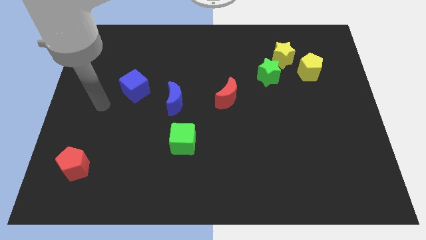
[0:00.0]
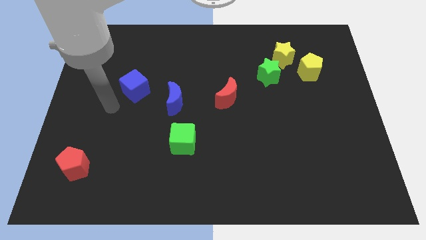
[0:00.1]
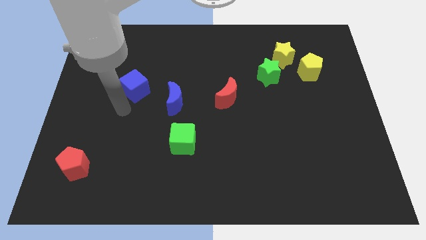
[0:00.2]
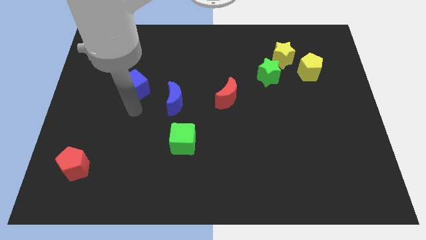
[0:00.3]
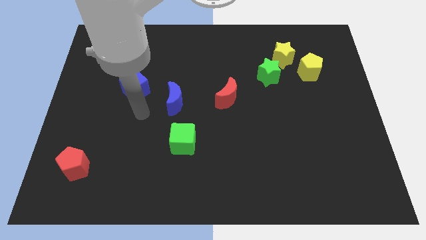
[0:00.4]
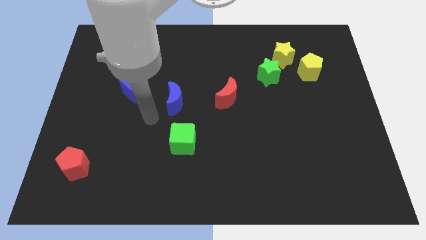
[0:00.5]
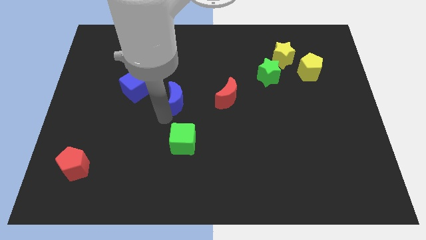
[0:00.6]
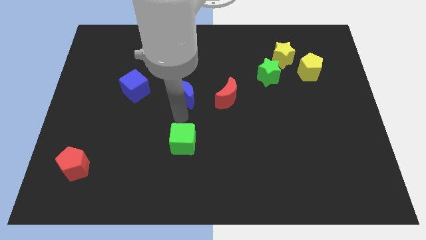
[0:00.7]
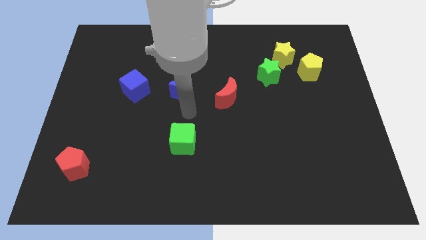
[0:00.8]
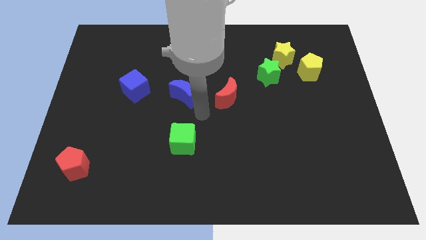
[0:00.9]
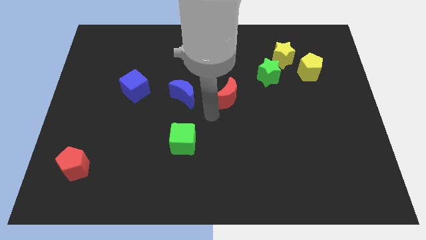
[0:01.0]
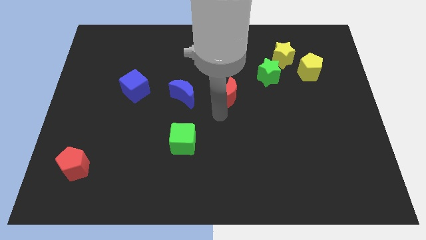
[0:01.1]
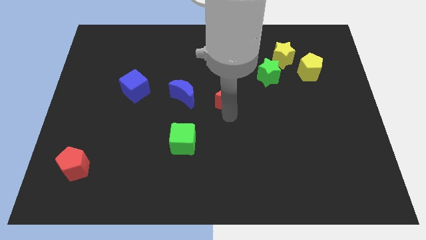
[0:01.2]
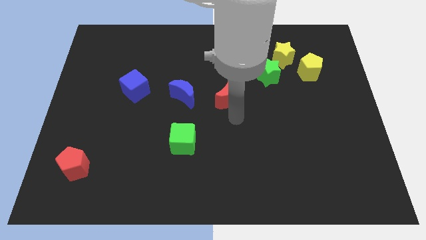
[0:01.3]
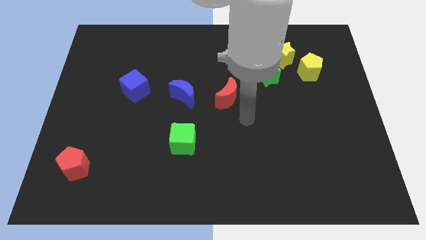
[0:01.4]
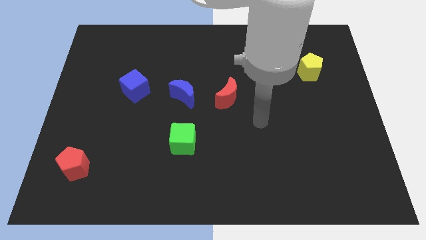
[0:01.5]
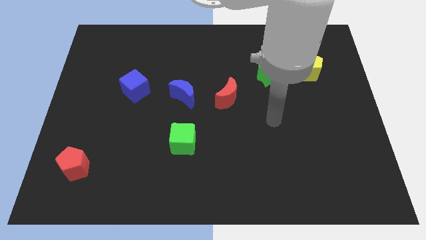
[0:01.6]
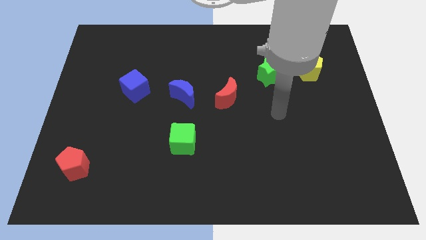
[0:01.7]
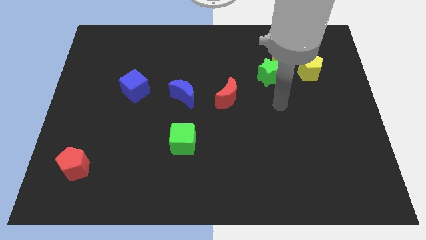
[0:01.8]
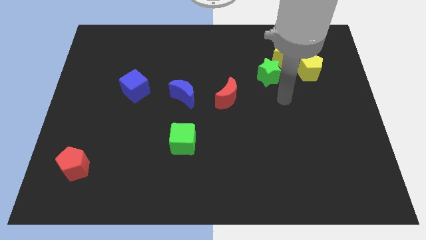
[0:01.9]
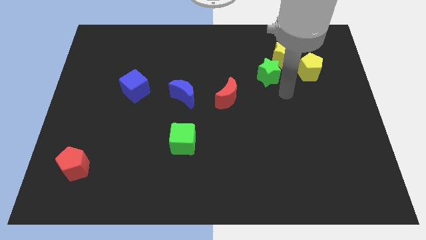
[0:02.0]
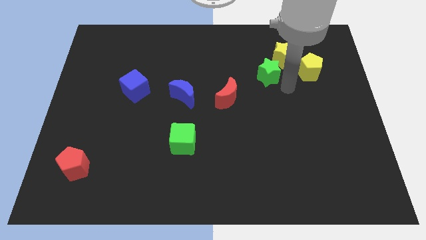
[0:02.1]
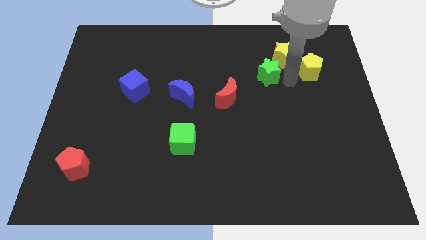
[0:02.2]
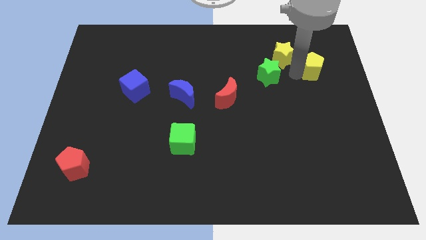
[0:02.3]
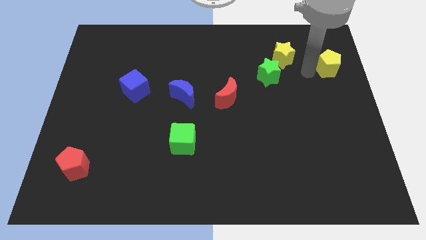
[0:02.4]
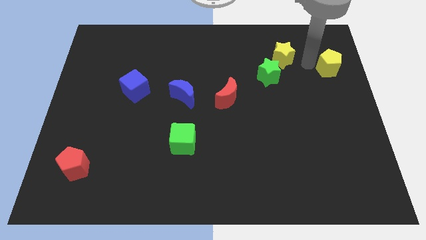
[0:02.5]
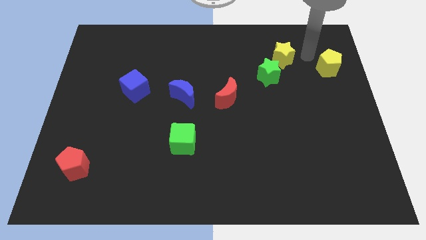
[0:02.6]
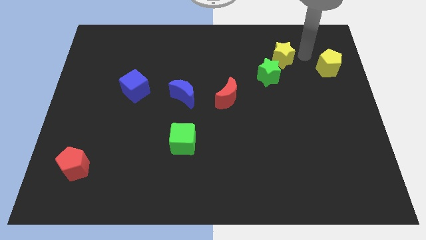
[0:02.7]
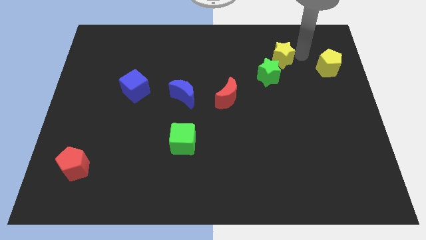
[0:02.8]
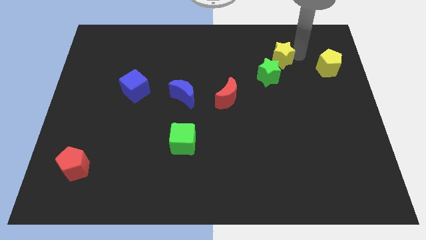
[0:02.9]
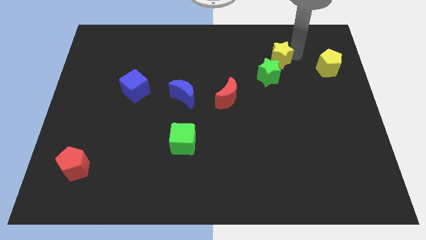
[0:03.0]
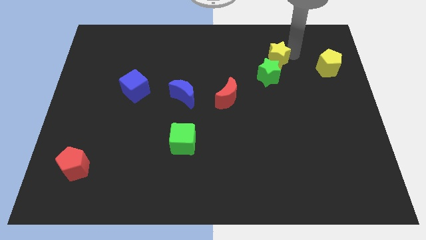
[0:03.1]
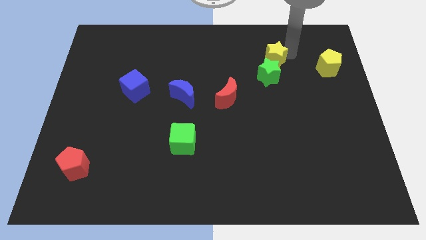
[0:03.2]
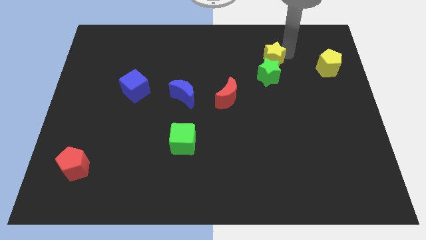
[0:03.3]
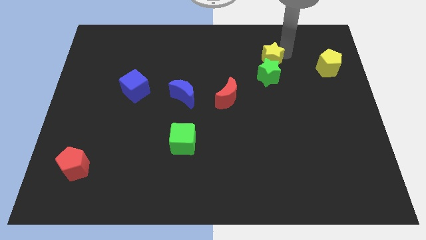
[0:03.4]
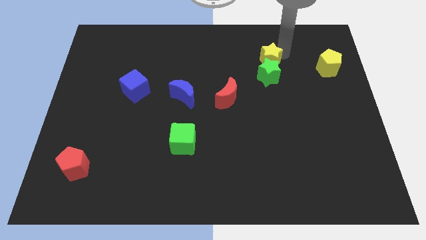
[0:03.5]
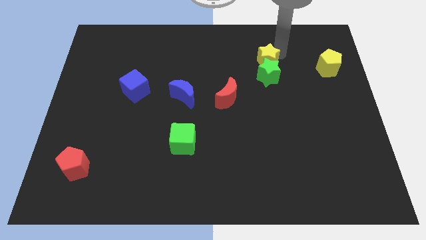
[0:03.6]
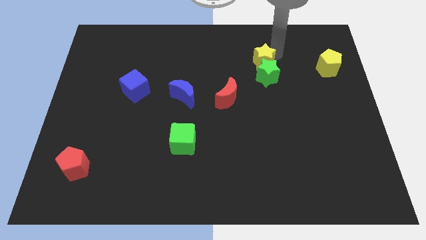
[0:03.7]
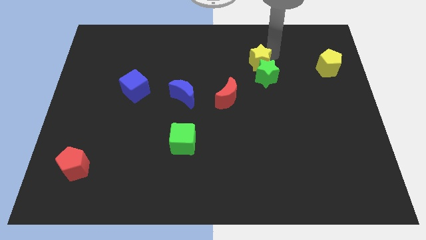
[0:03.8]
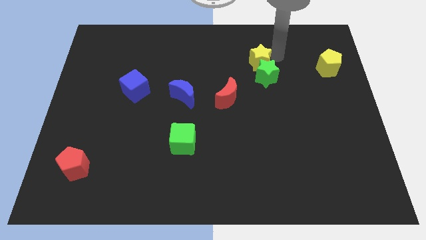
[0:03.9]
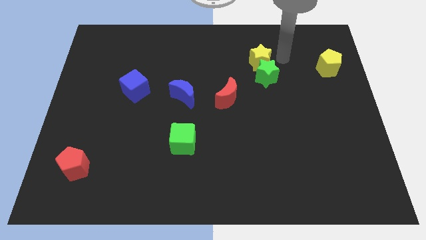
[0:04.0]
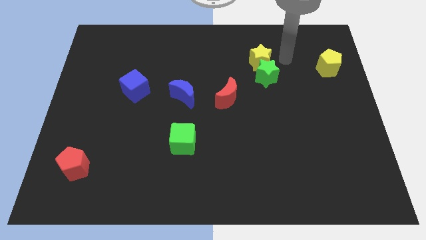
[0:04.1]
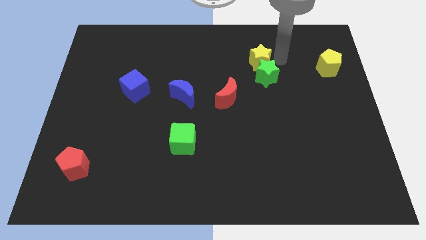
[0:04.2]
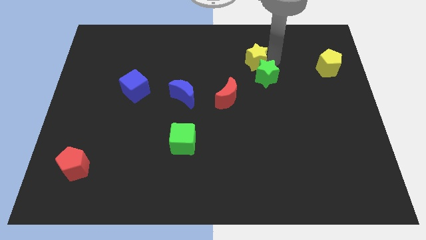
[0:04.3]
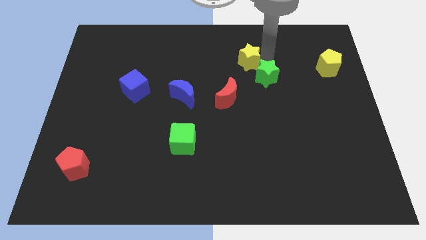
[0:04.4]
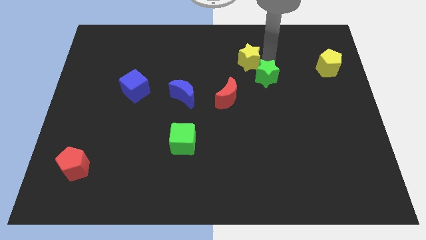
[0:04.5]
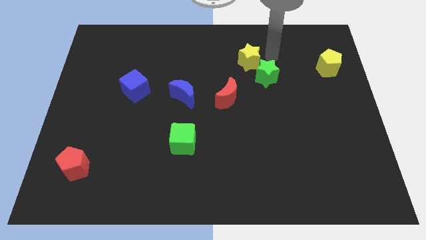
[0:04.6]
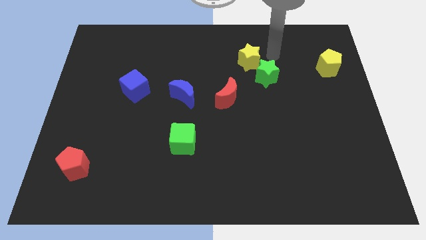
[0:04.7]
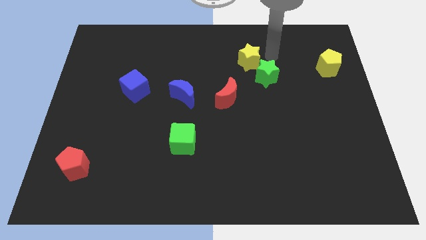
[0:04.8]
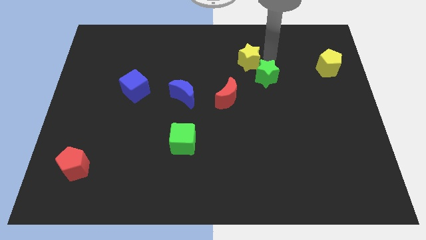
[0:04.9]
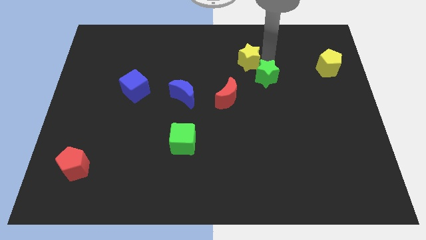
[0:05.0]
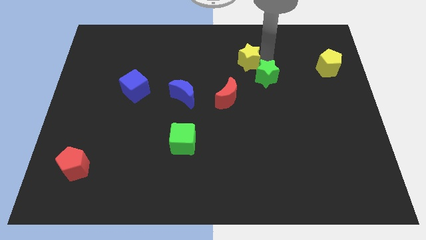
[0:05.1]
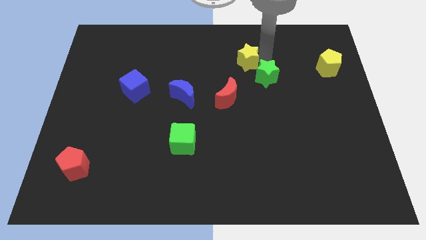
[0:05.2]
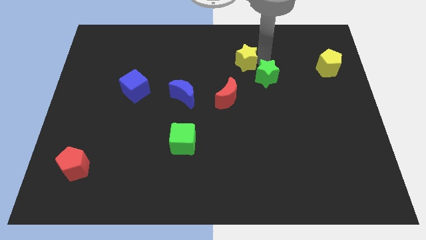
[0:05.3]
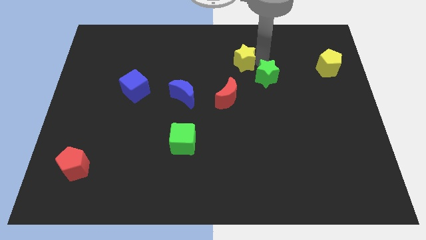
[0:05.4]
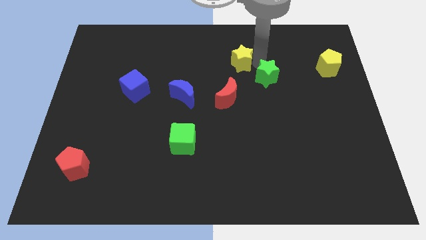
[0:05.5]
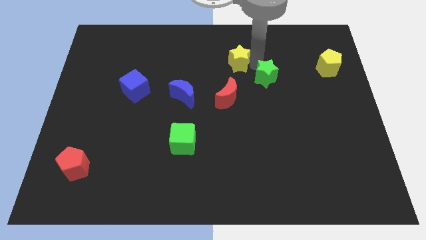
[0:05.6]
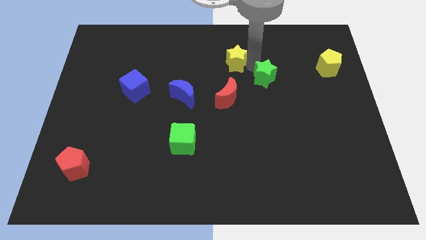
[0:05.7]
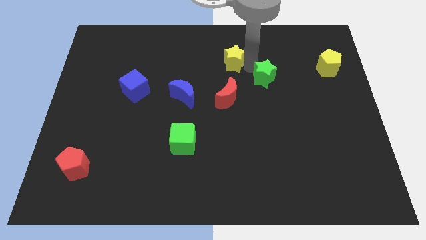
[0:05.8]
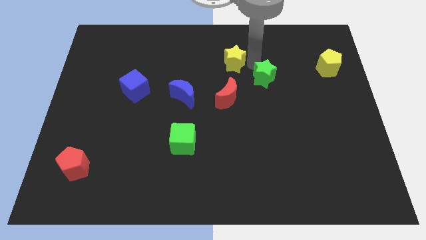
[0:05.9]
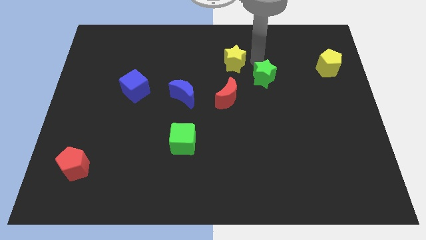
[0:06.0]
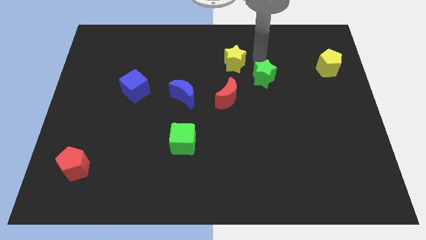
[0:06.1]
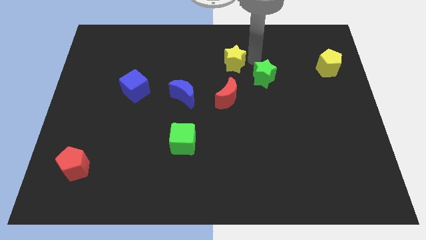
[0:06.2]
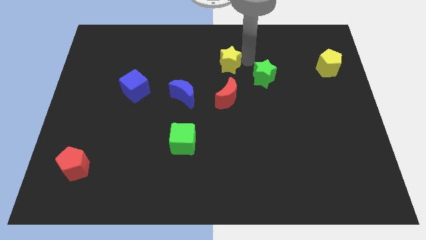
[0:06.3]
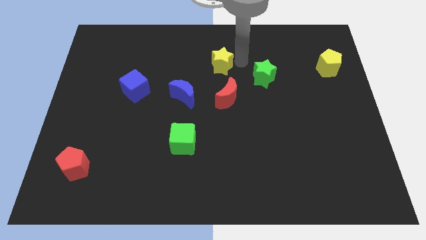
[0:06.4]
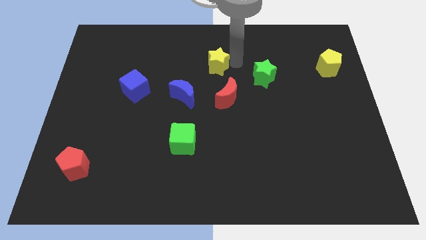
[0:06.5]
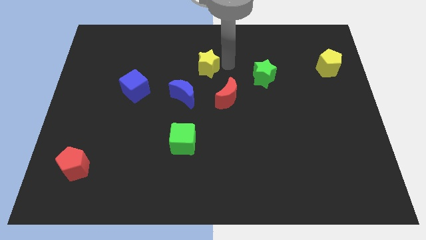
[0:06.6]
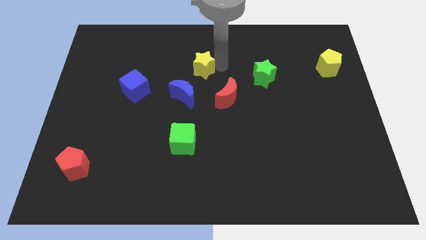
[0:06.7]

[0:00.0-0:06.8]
put the yellow star above the blue moon

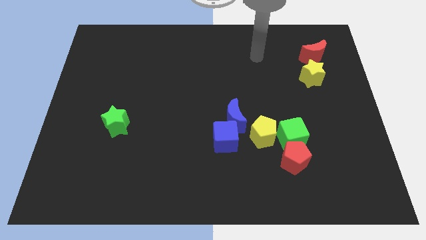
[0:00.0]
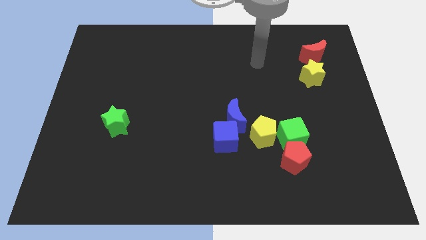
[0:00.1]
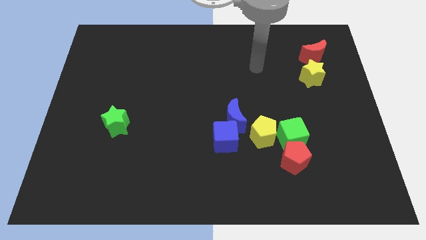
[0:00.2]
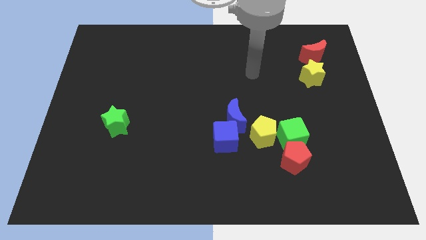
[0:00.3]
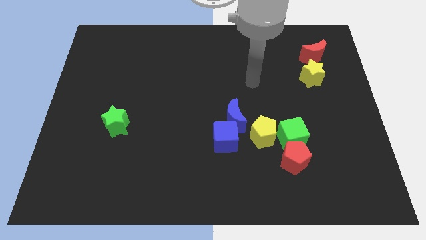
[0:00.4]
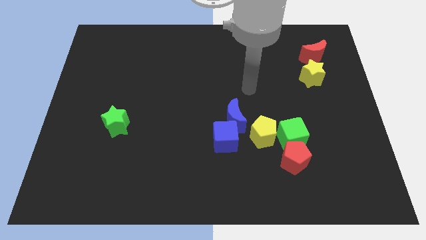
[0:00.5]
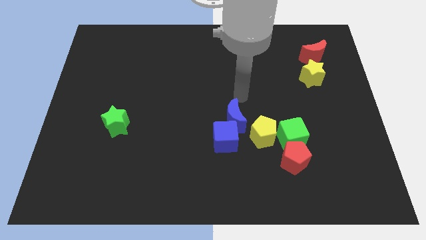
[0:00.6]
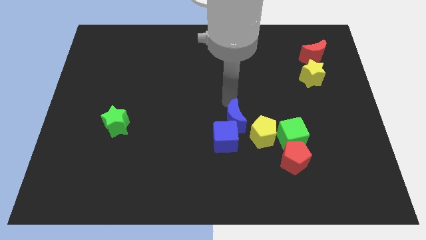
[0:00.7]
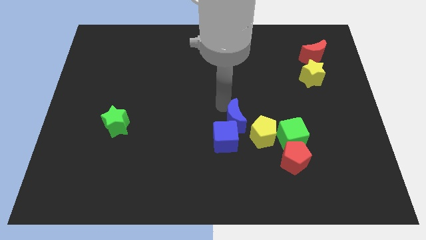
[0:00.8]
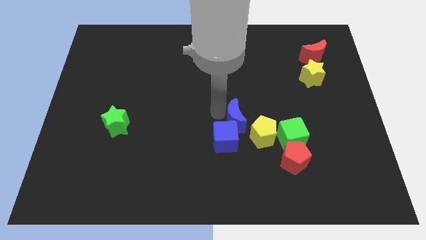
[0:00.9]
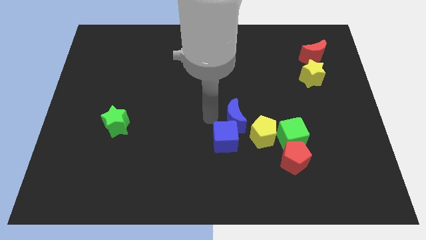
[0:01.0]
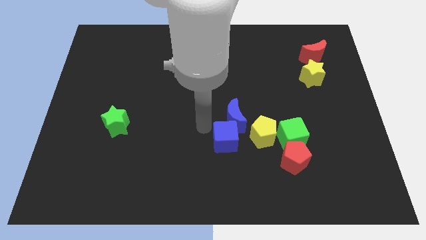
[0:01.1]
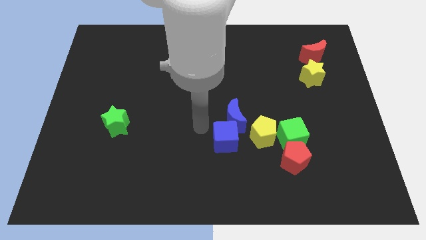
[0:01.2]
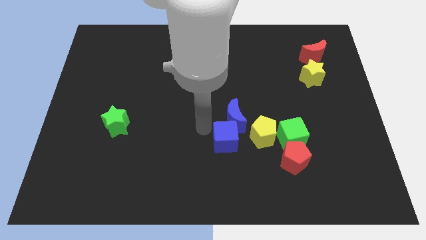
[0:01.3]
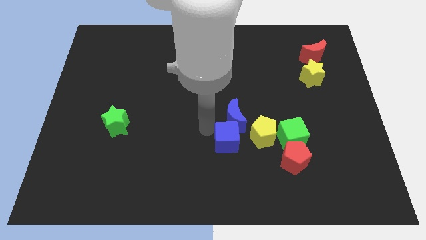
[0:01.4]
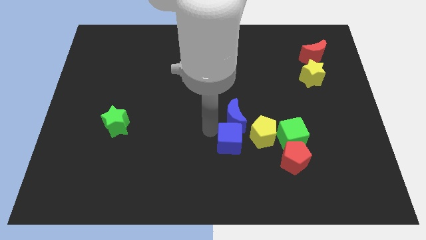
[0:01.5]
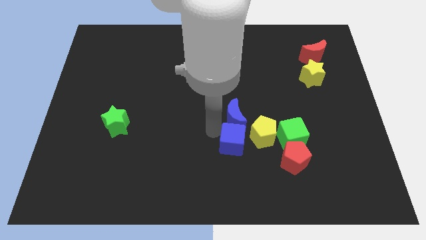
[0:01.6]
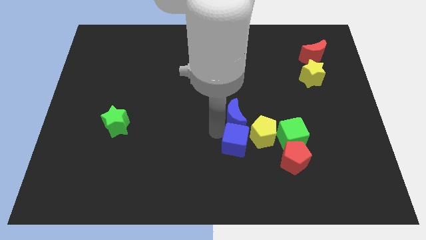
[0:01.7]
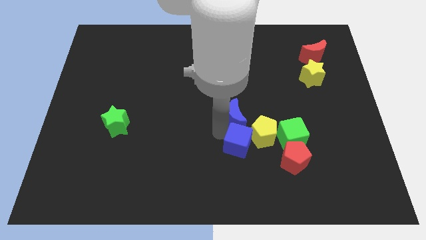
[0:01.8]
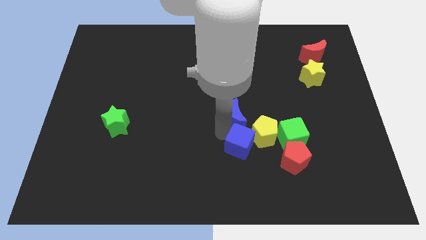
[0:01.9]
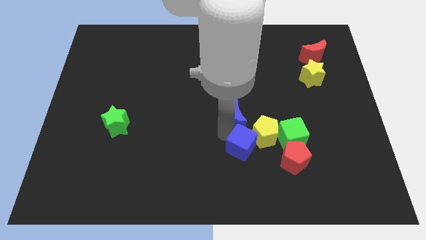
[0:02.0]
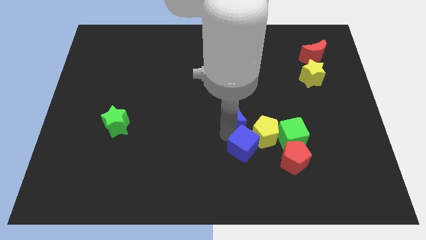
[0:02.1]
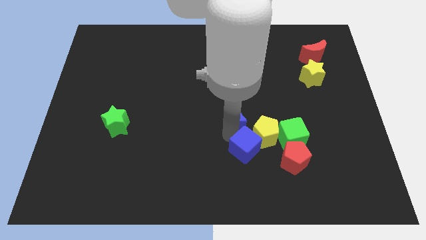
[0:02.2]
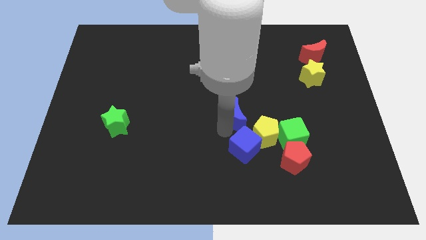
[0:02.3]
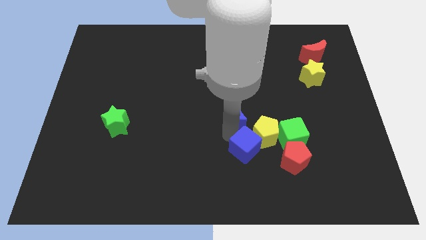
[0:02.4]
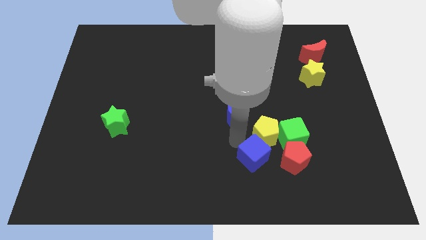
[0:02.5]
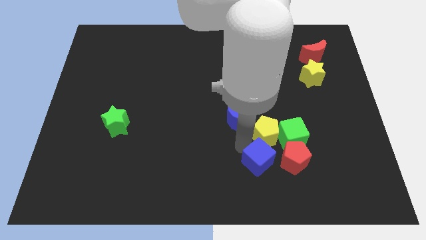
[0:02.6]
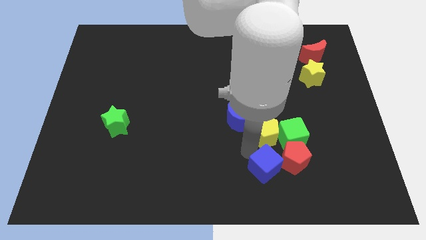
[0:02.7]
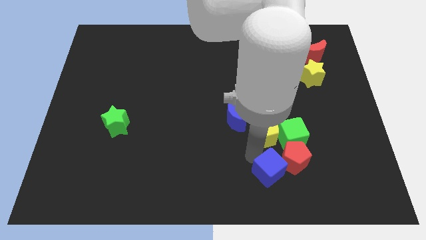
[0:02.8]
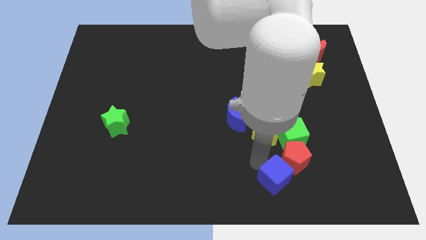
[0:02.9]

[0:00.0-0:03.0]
put the blue cube to the bottom side of the green cube
